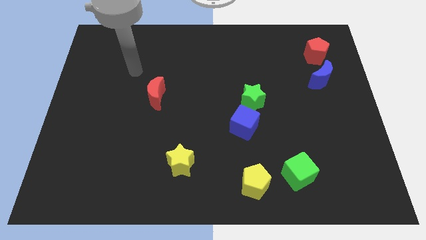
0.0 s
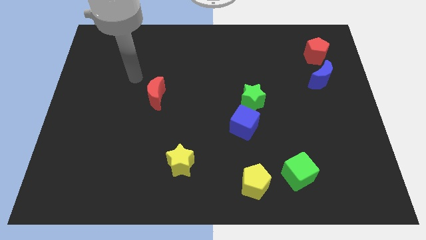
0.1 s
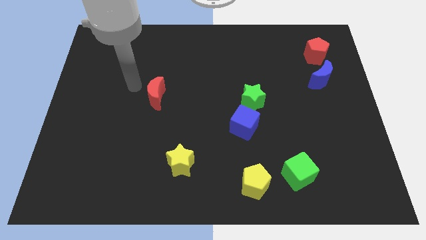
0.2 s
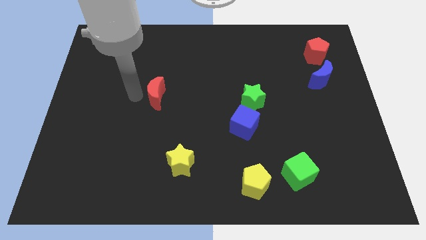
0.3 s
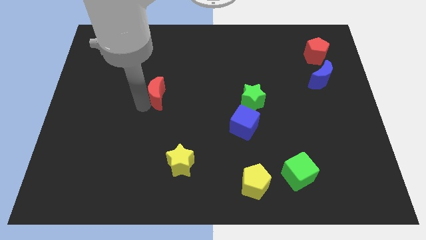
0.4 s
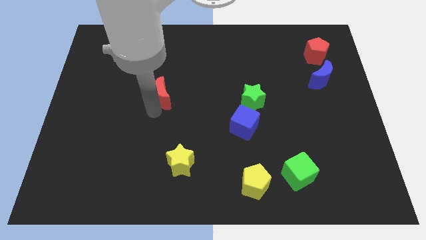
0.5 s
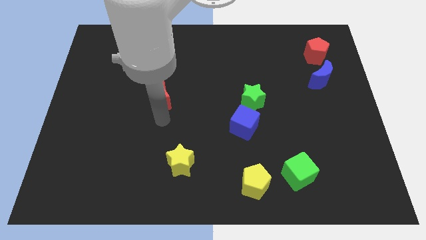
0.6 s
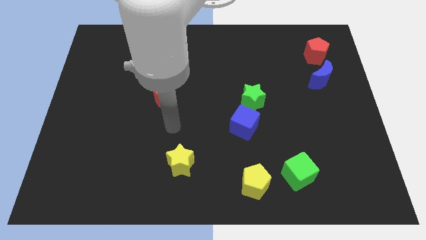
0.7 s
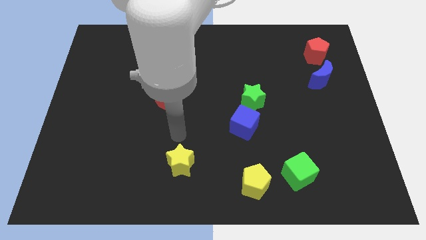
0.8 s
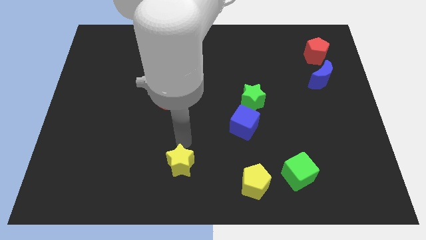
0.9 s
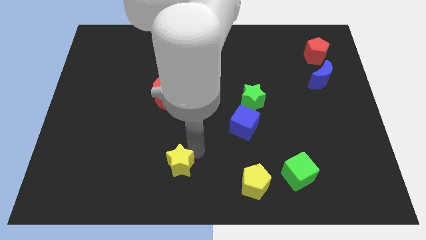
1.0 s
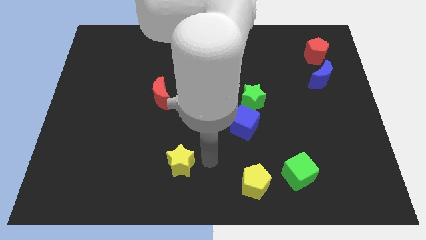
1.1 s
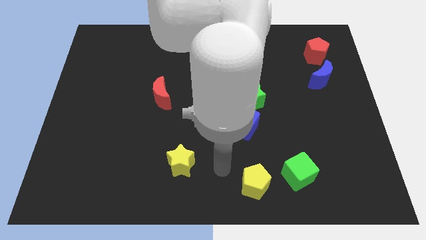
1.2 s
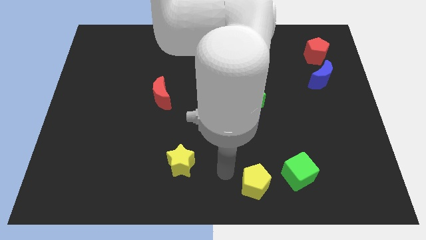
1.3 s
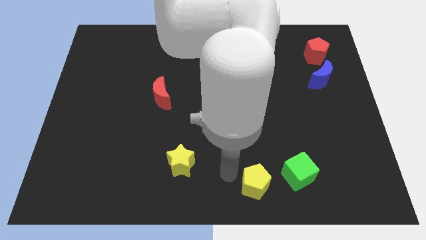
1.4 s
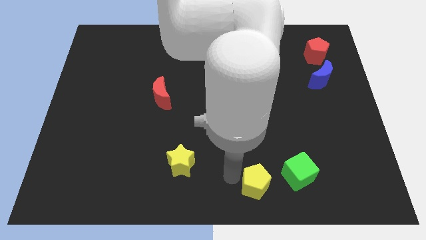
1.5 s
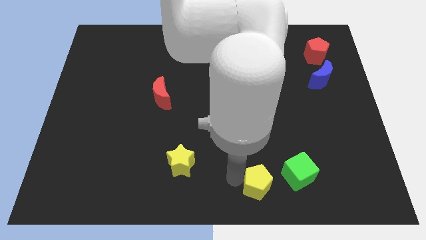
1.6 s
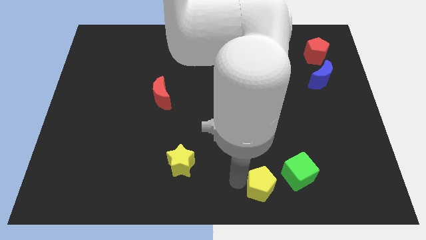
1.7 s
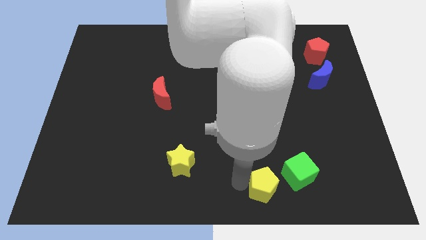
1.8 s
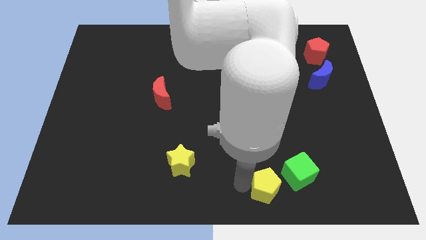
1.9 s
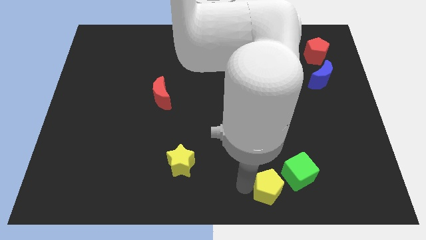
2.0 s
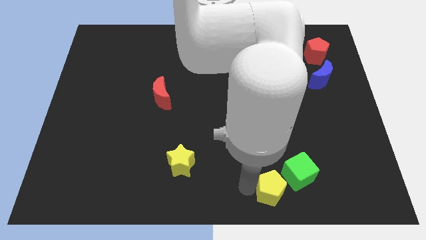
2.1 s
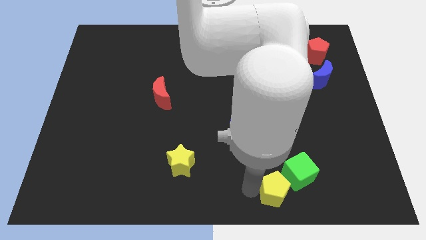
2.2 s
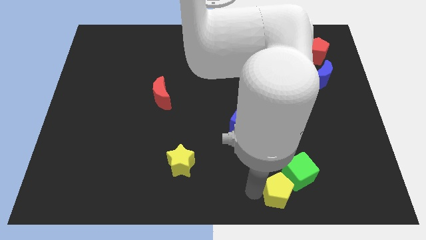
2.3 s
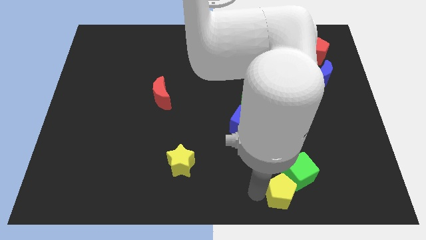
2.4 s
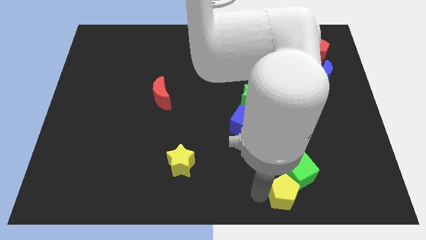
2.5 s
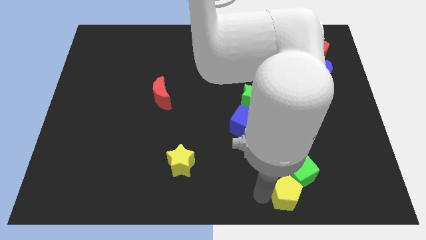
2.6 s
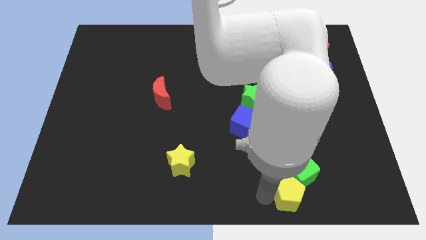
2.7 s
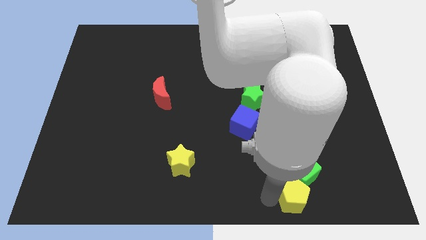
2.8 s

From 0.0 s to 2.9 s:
slightly push the yellow pentagon right

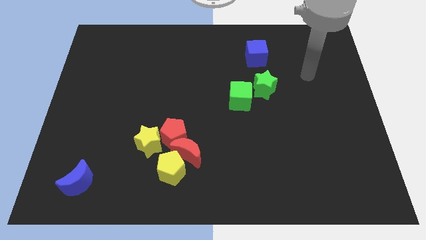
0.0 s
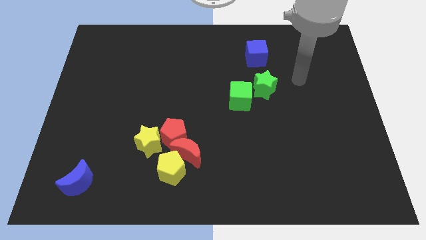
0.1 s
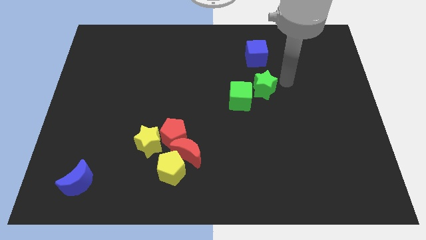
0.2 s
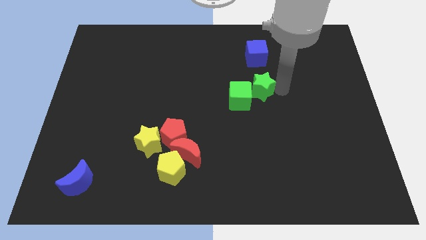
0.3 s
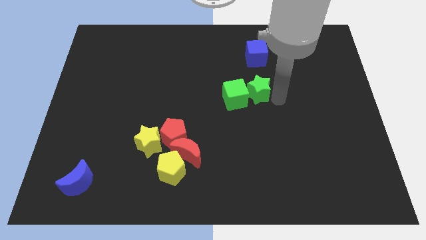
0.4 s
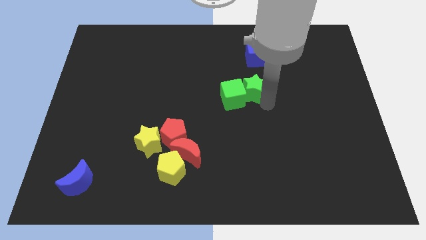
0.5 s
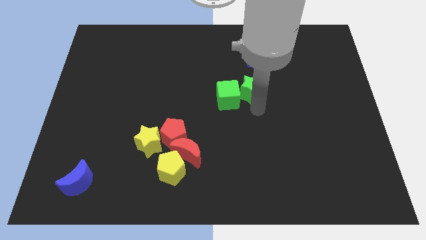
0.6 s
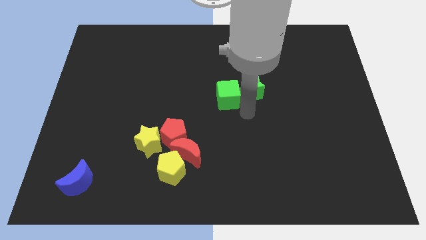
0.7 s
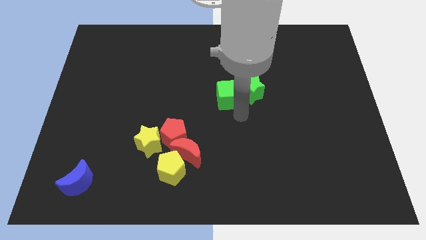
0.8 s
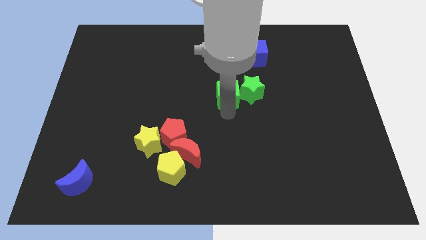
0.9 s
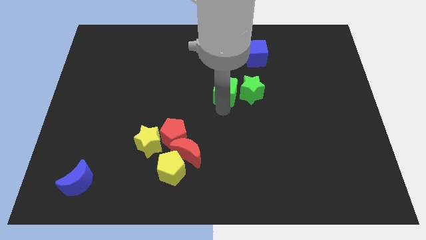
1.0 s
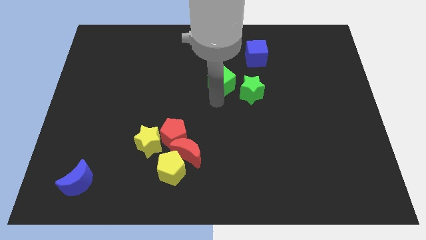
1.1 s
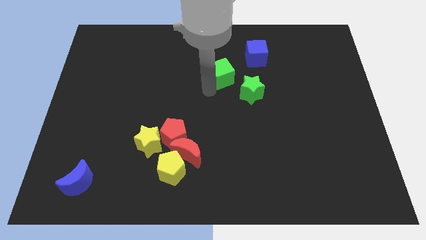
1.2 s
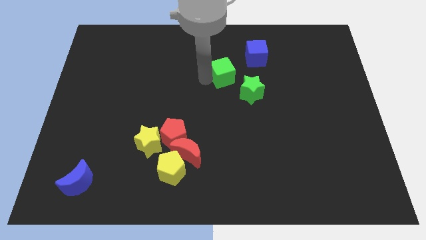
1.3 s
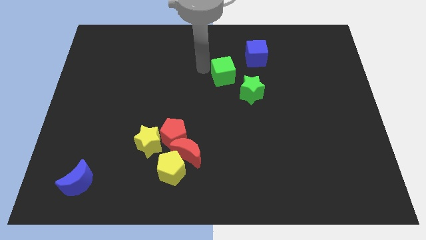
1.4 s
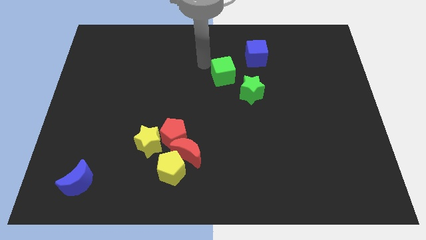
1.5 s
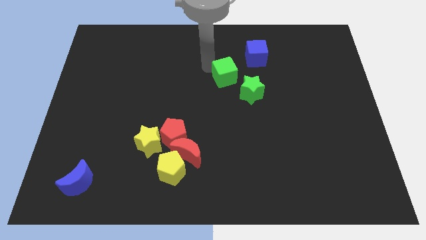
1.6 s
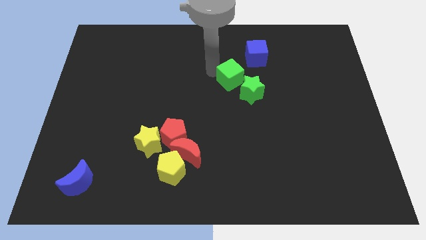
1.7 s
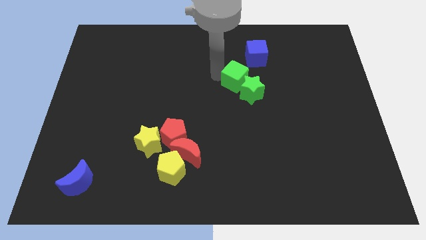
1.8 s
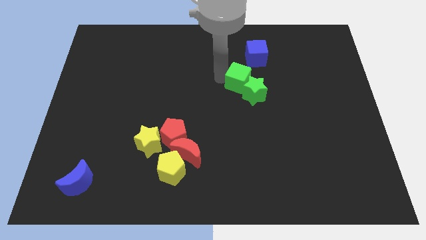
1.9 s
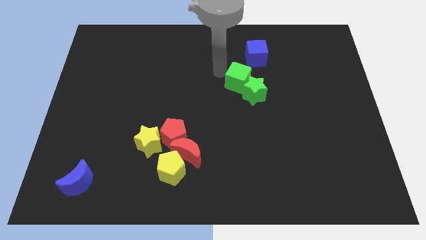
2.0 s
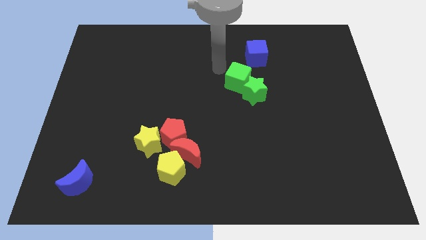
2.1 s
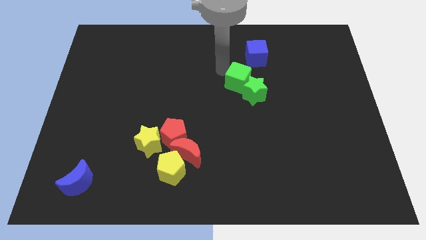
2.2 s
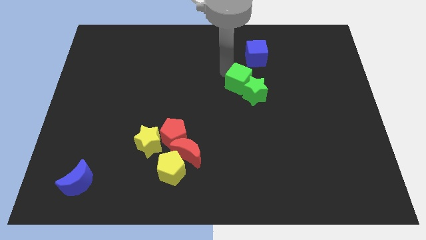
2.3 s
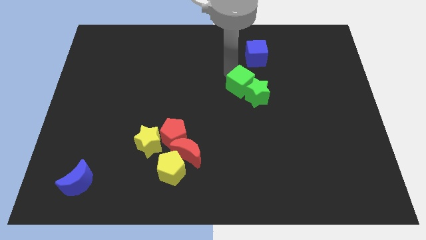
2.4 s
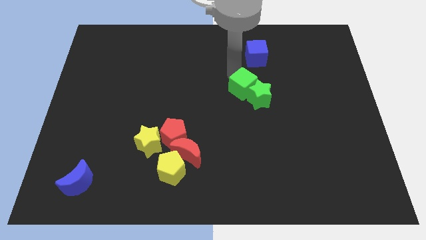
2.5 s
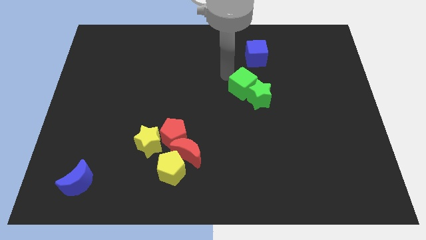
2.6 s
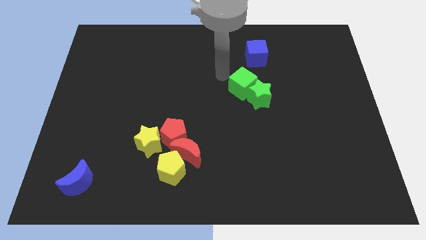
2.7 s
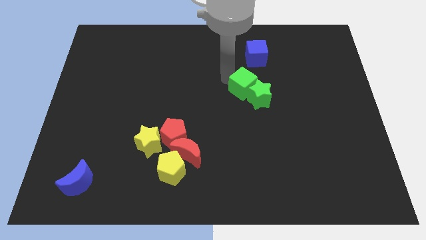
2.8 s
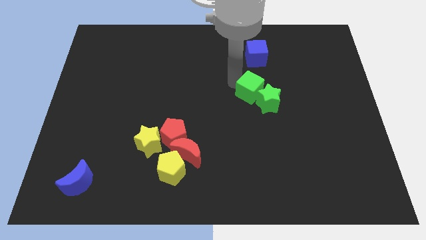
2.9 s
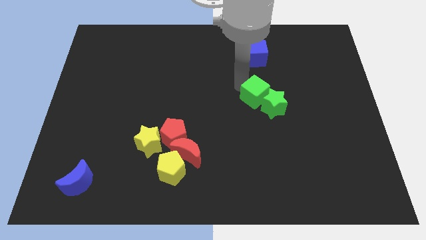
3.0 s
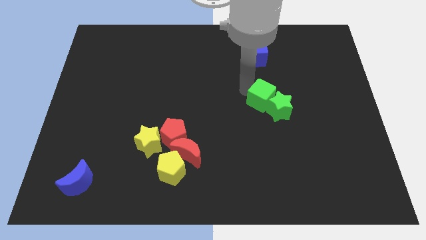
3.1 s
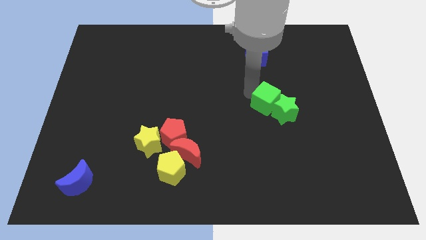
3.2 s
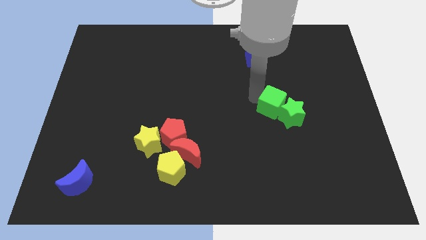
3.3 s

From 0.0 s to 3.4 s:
slightly push the green cube right

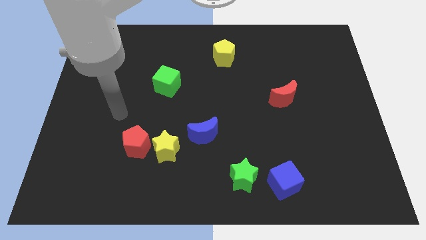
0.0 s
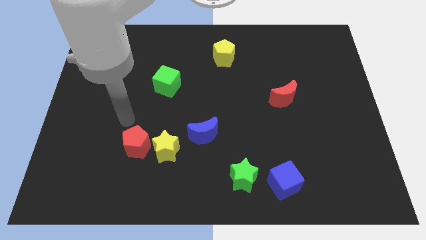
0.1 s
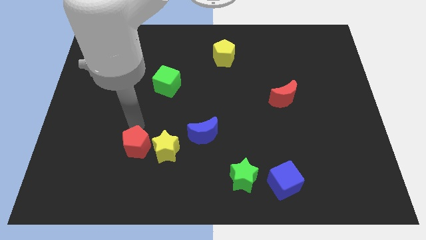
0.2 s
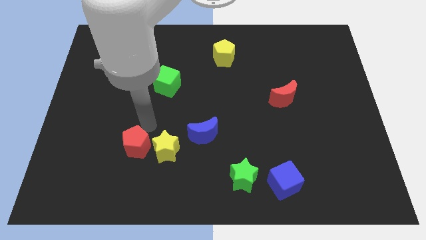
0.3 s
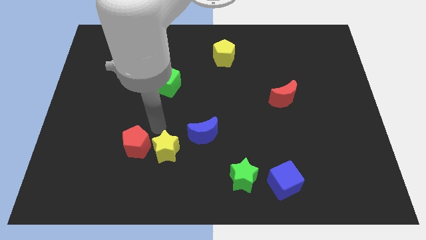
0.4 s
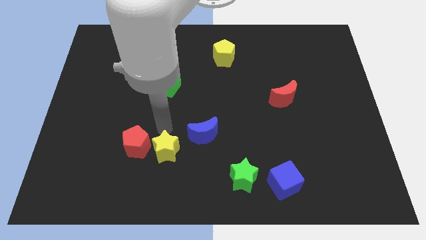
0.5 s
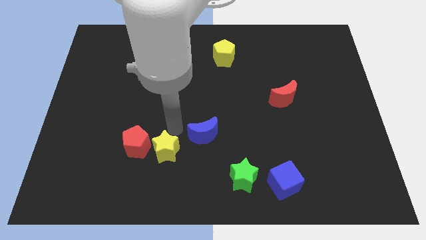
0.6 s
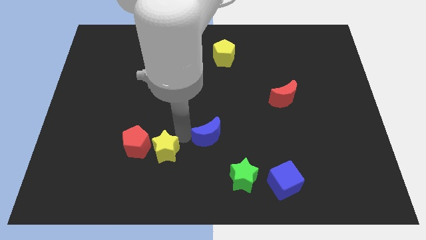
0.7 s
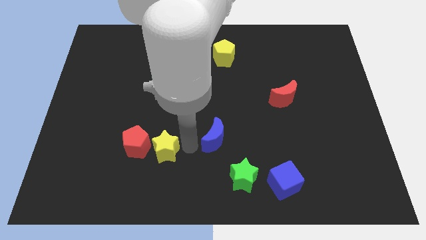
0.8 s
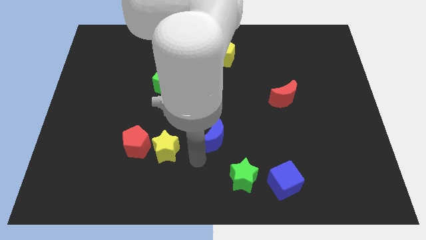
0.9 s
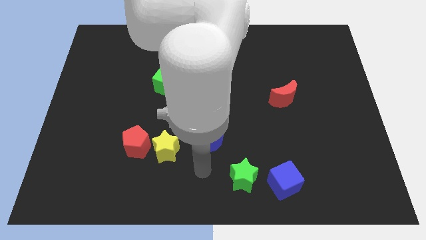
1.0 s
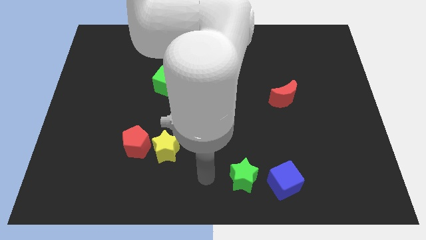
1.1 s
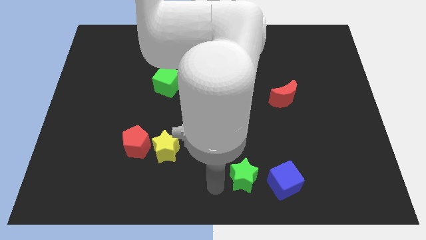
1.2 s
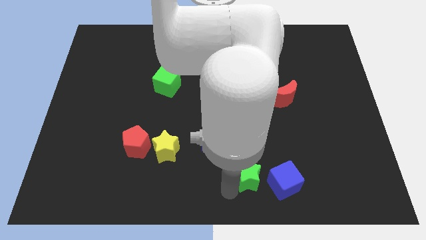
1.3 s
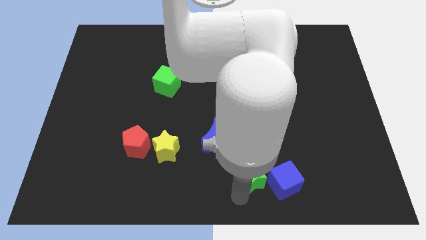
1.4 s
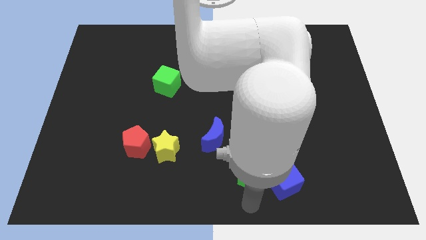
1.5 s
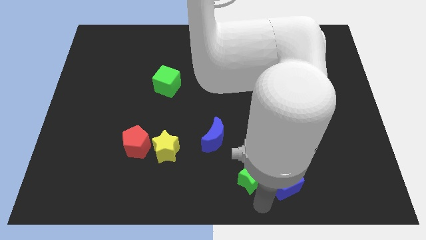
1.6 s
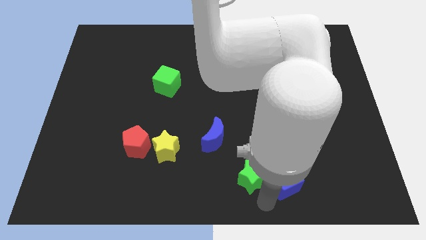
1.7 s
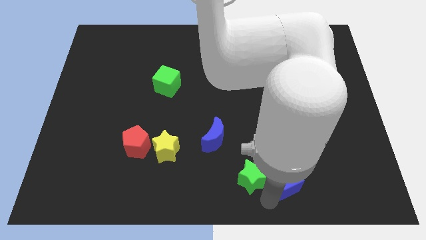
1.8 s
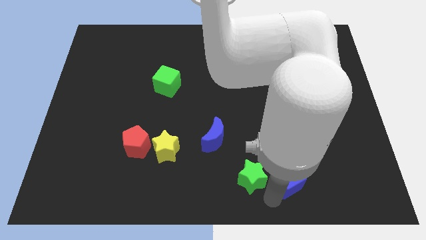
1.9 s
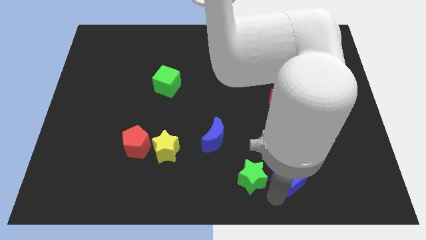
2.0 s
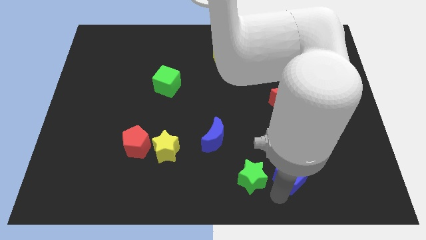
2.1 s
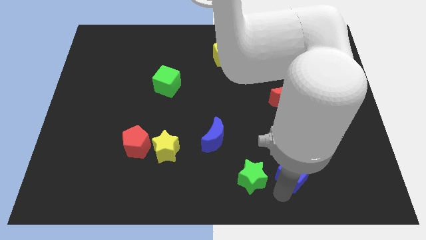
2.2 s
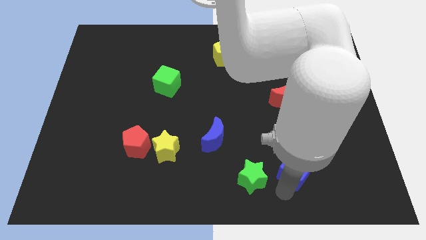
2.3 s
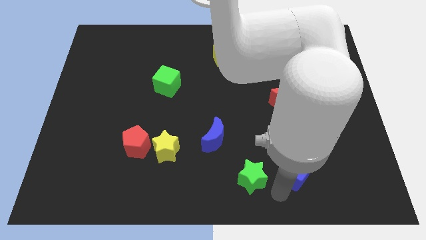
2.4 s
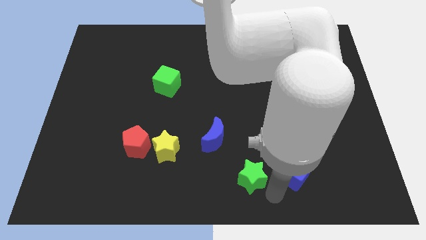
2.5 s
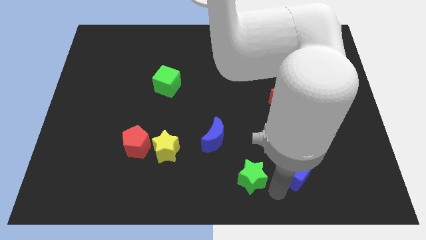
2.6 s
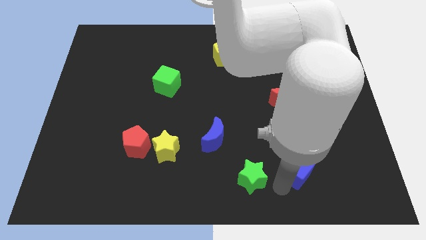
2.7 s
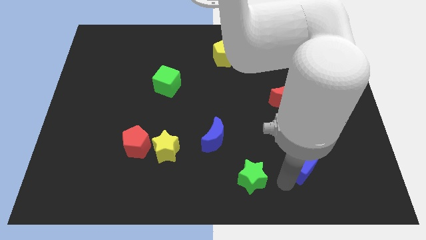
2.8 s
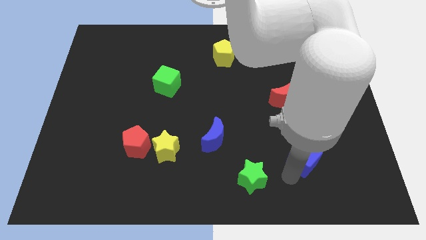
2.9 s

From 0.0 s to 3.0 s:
slightly move the blue cube up and right
